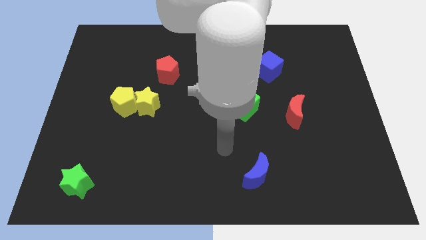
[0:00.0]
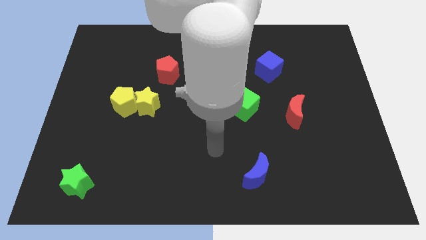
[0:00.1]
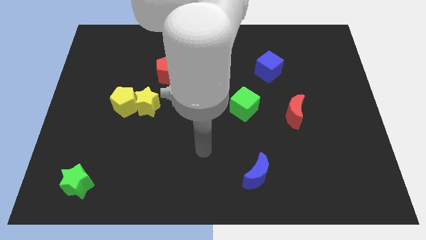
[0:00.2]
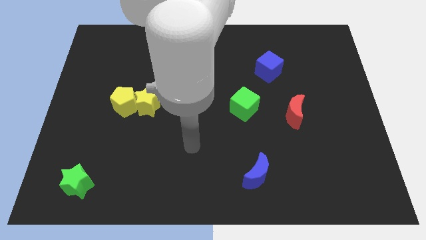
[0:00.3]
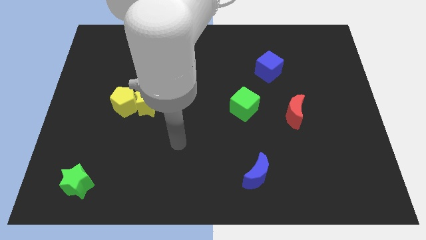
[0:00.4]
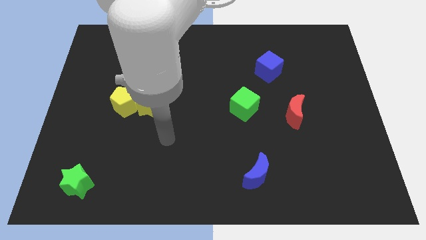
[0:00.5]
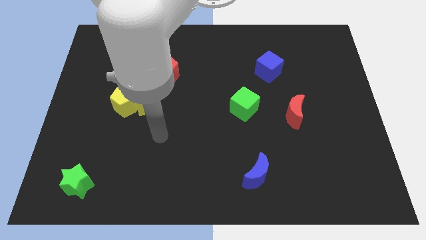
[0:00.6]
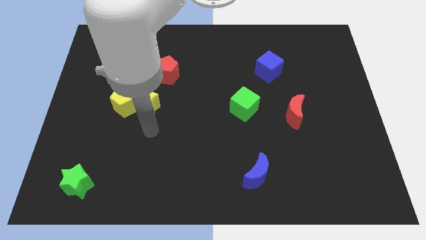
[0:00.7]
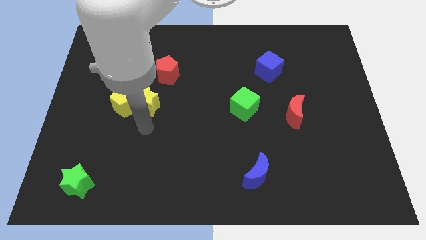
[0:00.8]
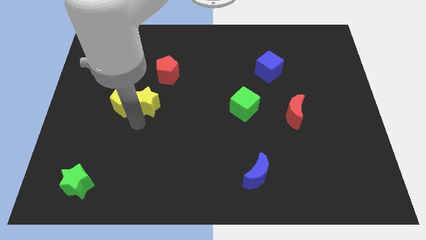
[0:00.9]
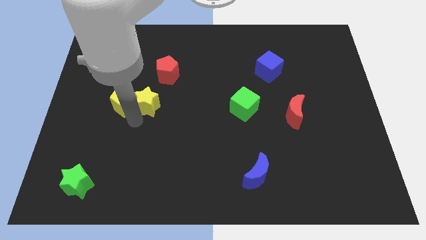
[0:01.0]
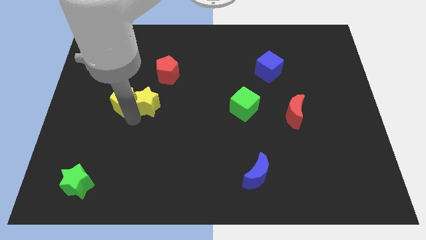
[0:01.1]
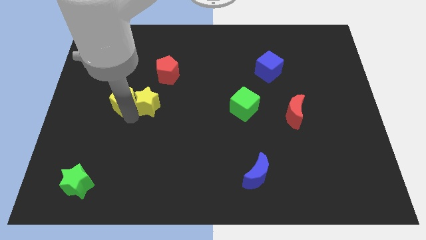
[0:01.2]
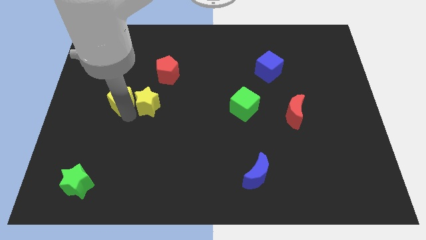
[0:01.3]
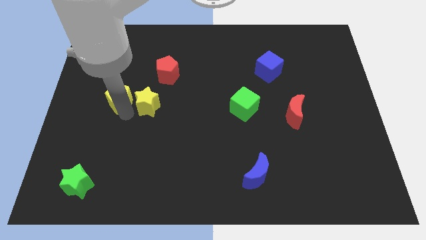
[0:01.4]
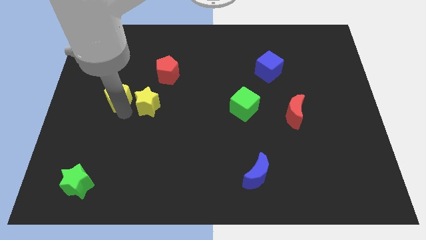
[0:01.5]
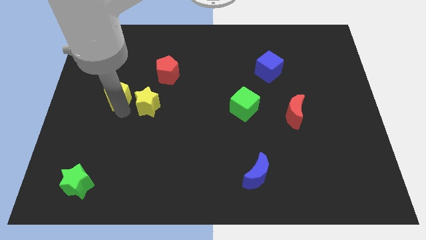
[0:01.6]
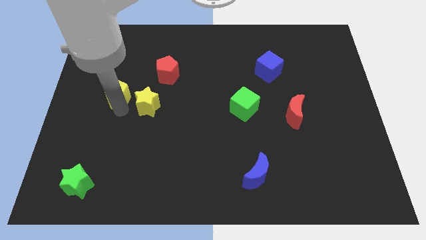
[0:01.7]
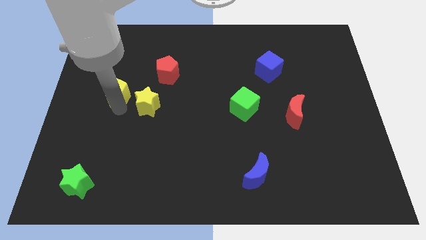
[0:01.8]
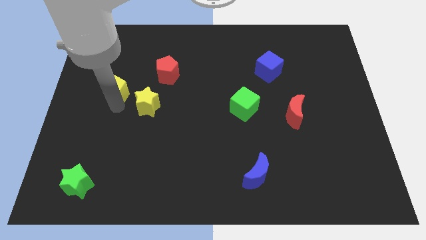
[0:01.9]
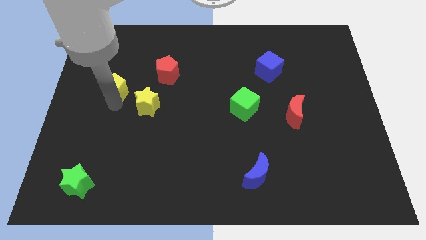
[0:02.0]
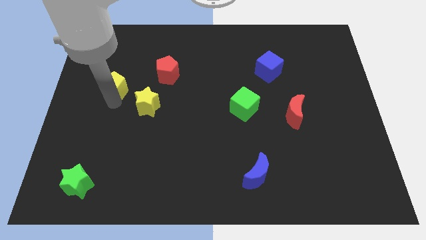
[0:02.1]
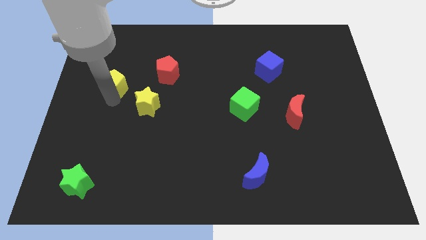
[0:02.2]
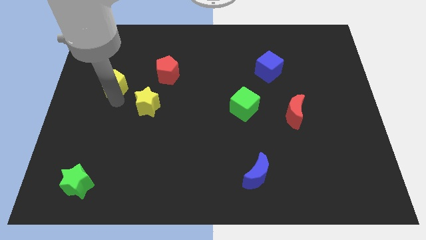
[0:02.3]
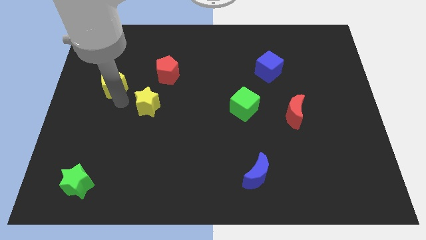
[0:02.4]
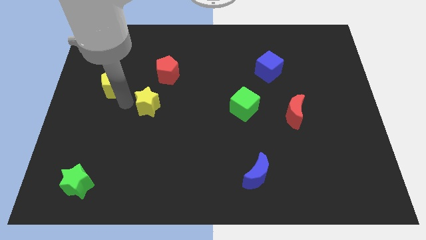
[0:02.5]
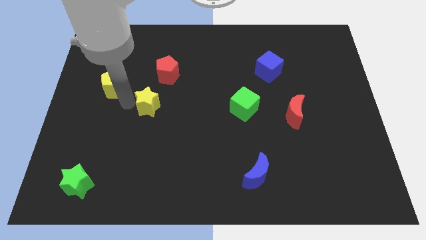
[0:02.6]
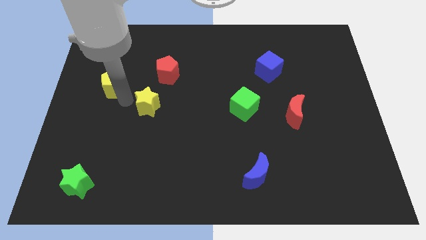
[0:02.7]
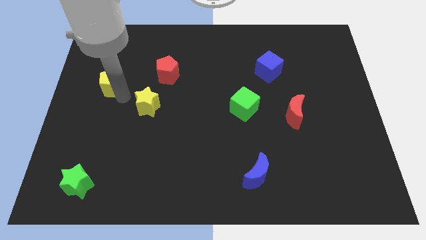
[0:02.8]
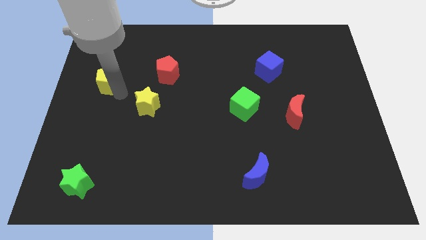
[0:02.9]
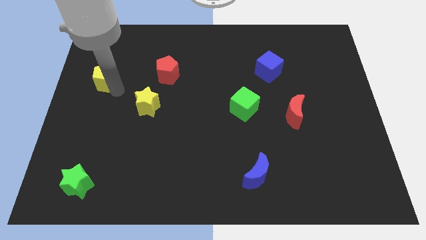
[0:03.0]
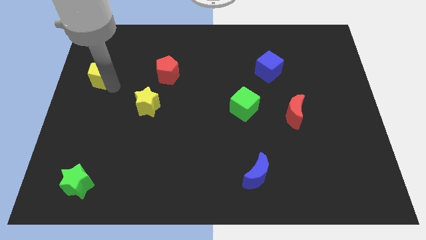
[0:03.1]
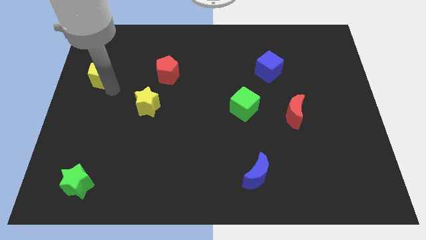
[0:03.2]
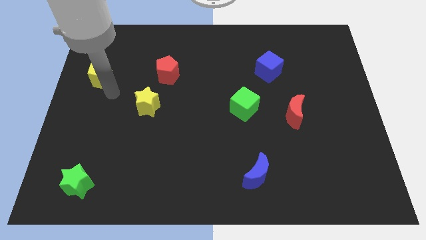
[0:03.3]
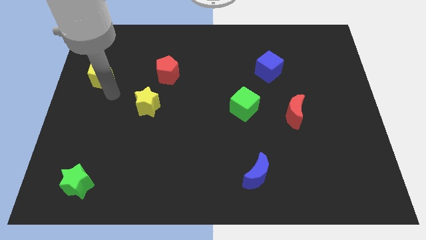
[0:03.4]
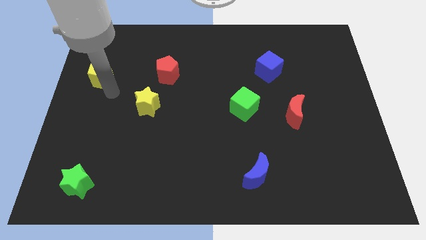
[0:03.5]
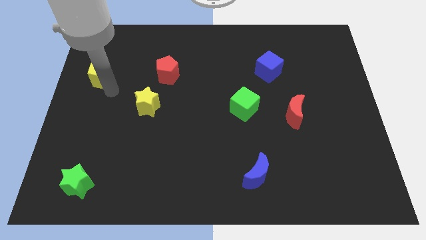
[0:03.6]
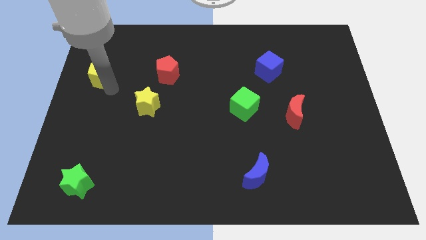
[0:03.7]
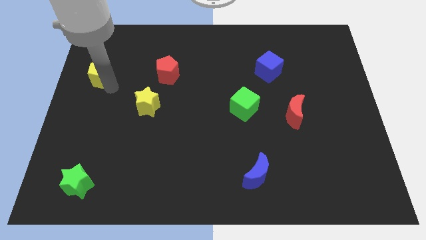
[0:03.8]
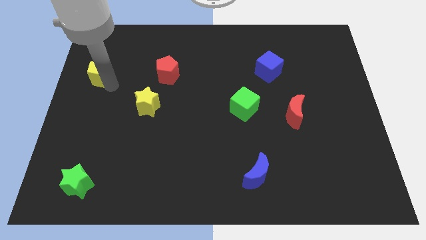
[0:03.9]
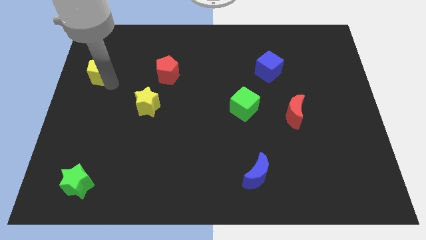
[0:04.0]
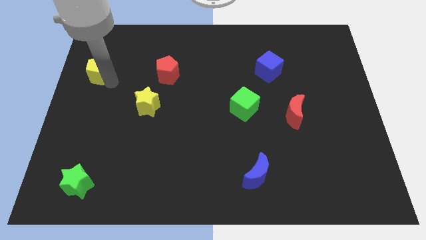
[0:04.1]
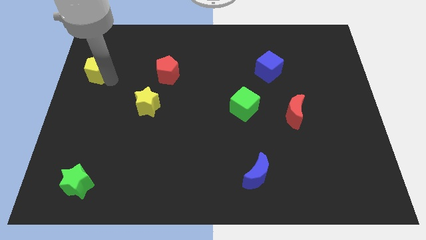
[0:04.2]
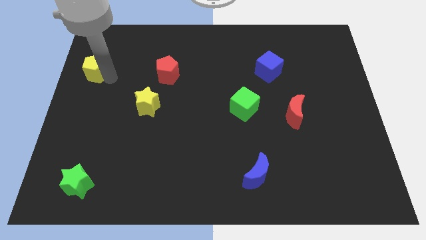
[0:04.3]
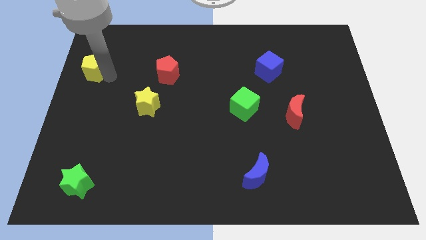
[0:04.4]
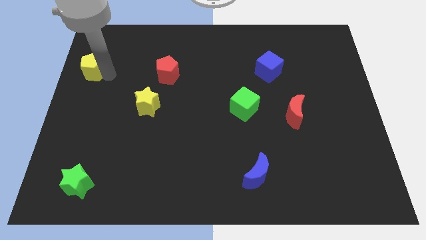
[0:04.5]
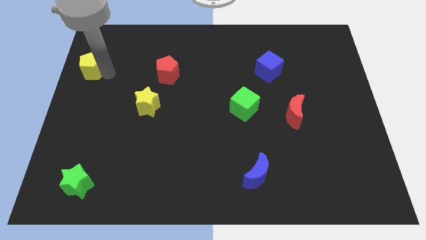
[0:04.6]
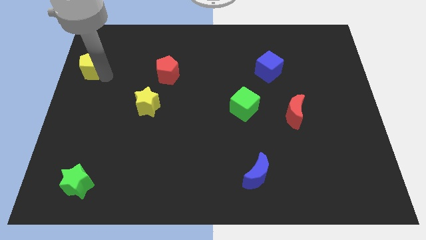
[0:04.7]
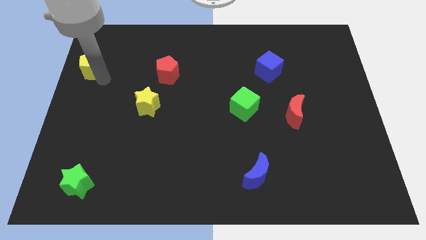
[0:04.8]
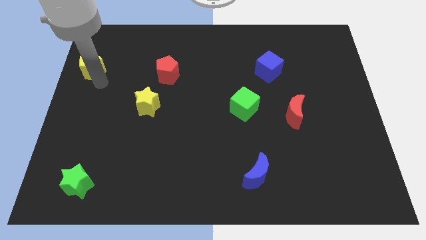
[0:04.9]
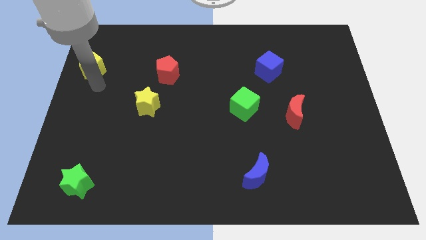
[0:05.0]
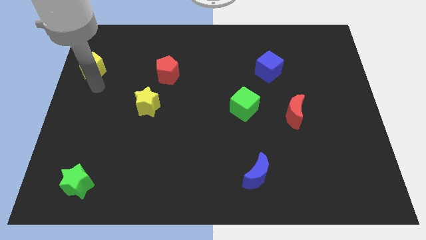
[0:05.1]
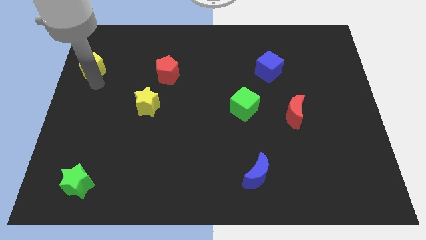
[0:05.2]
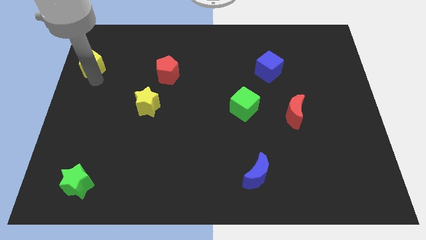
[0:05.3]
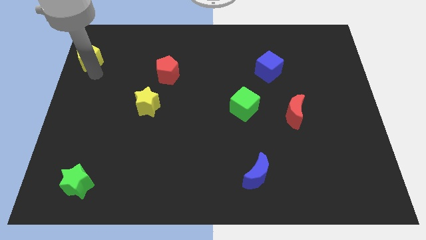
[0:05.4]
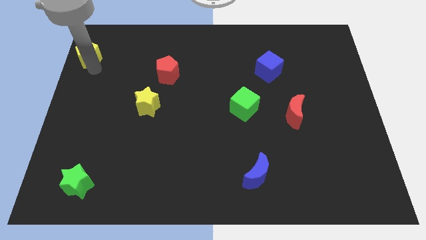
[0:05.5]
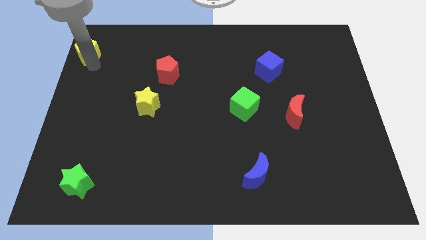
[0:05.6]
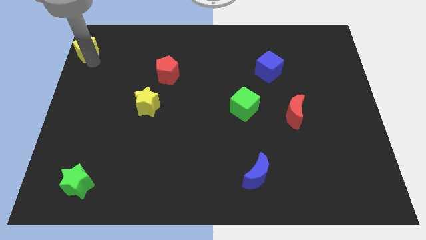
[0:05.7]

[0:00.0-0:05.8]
put the yellow pentagon to the upper left corner

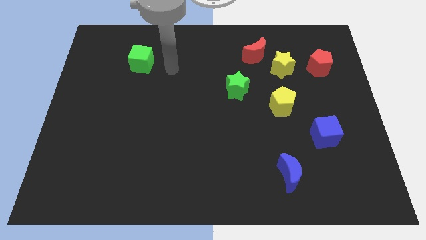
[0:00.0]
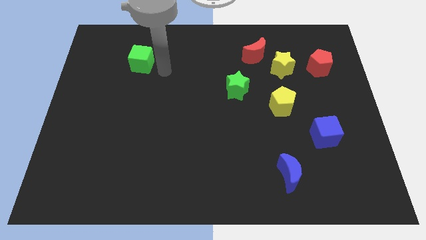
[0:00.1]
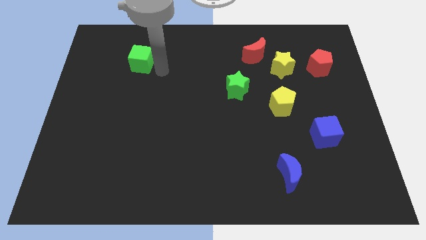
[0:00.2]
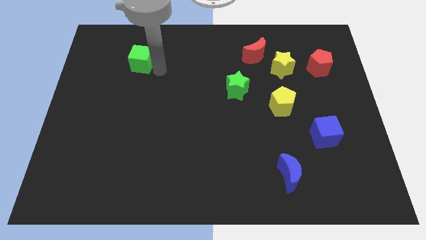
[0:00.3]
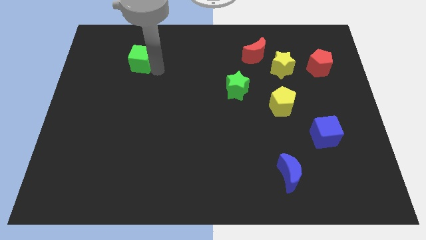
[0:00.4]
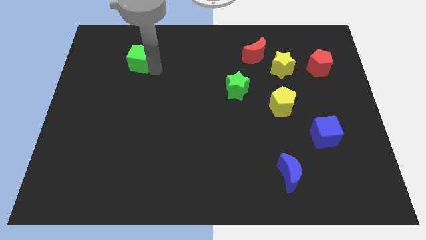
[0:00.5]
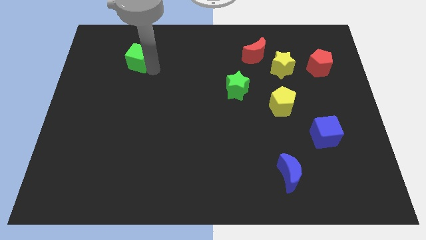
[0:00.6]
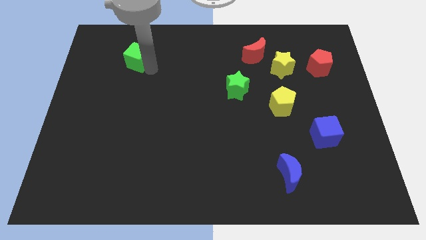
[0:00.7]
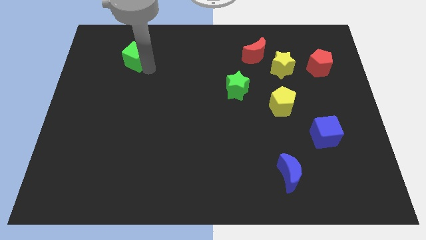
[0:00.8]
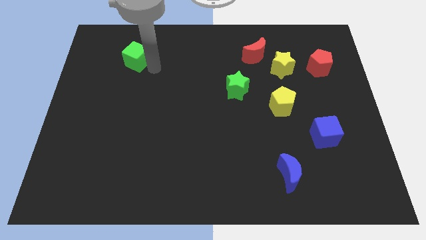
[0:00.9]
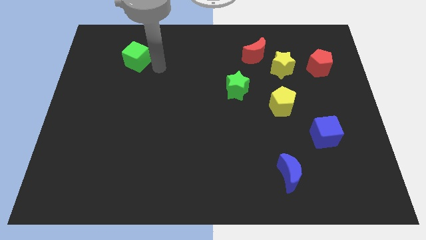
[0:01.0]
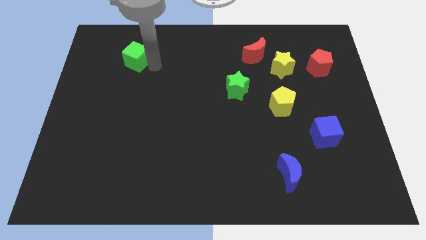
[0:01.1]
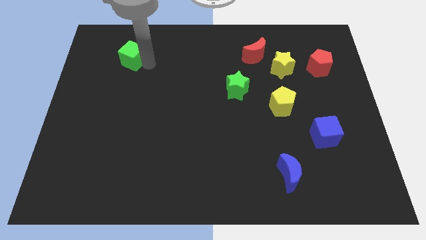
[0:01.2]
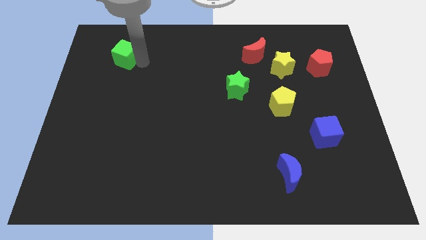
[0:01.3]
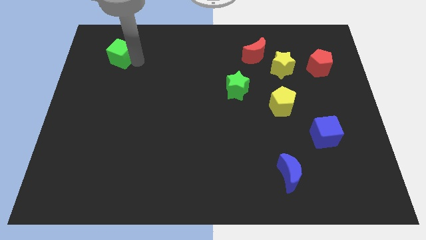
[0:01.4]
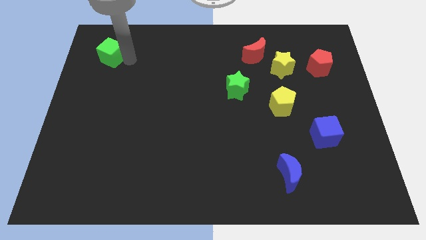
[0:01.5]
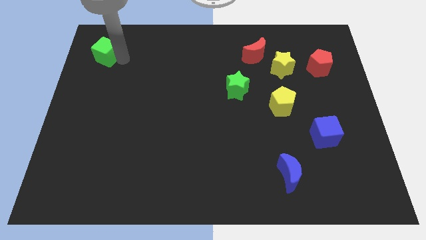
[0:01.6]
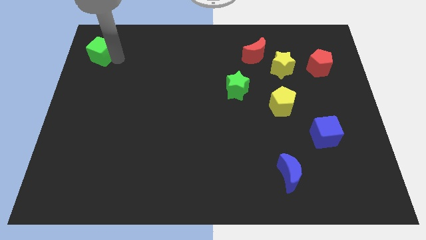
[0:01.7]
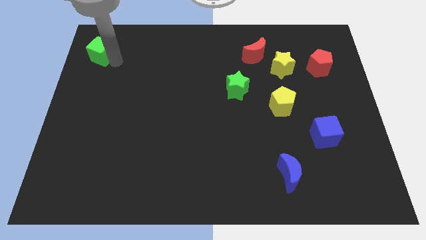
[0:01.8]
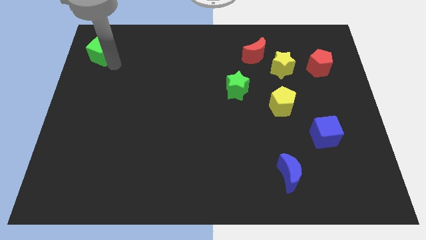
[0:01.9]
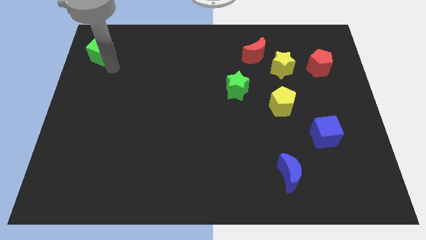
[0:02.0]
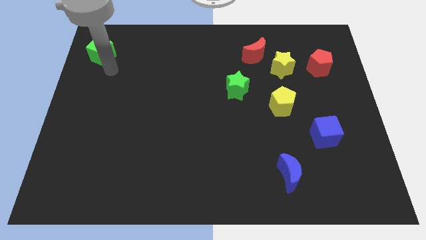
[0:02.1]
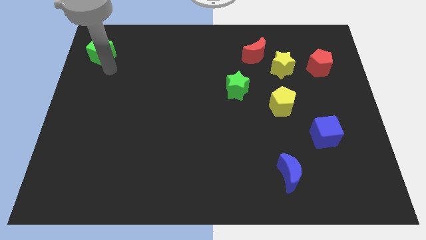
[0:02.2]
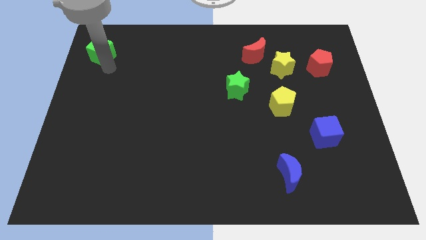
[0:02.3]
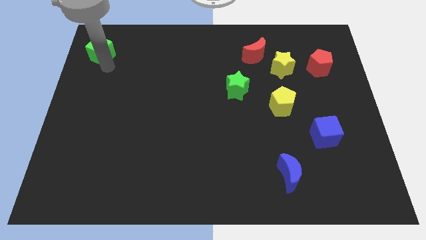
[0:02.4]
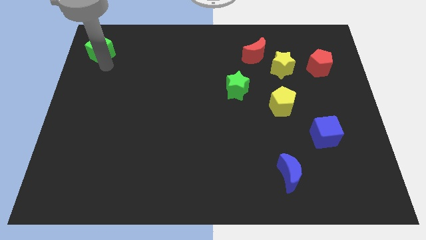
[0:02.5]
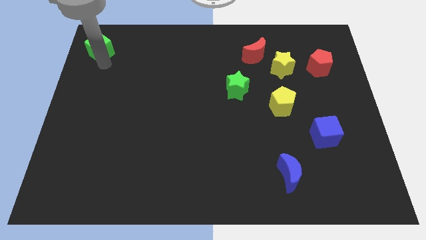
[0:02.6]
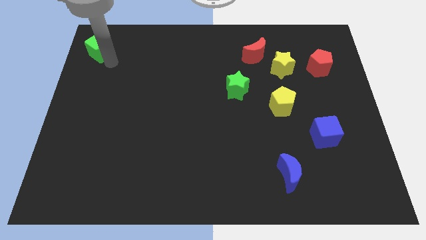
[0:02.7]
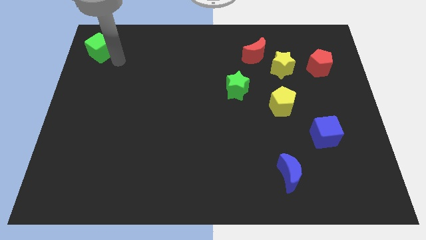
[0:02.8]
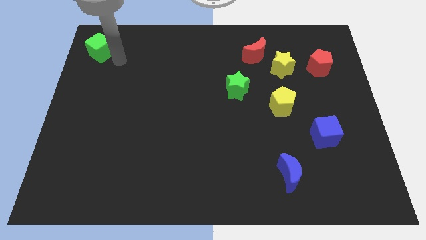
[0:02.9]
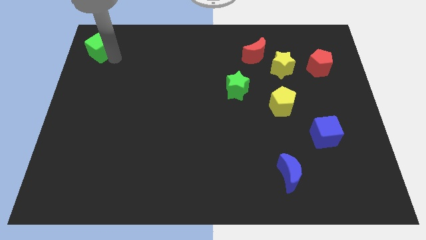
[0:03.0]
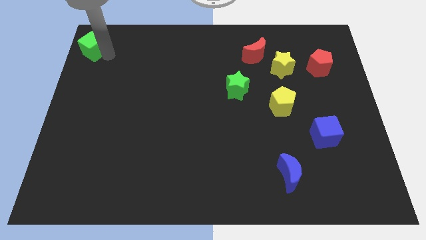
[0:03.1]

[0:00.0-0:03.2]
slide the green cube to the top left
